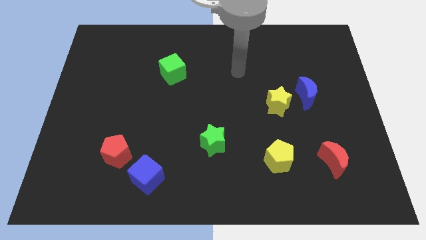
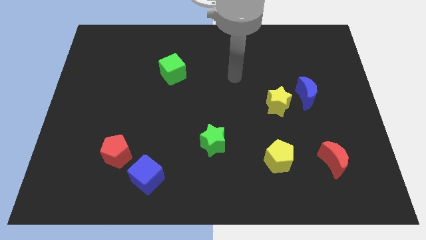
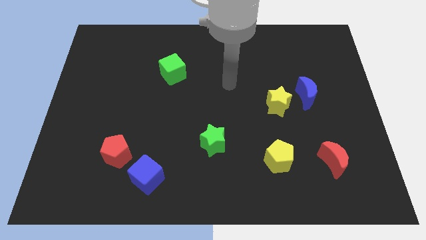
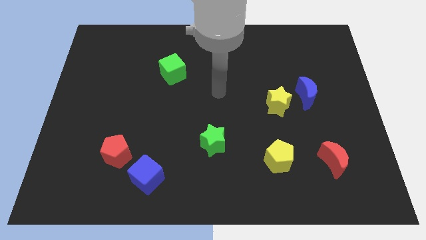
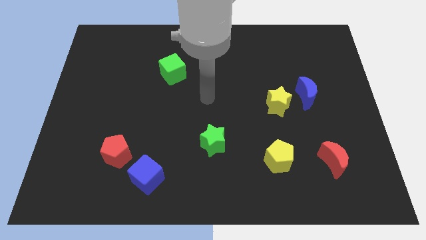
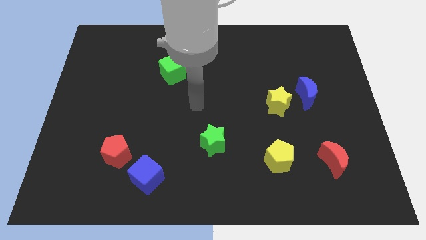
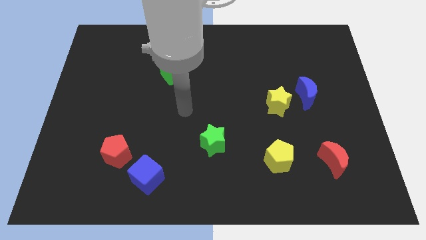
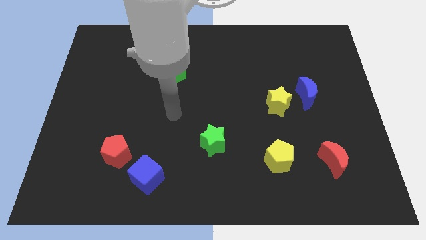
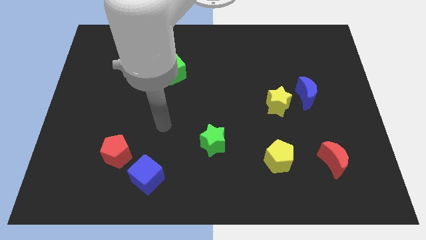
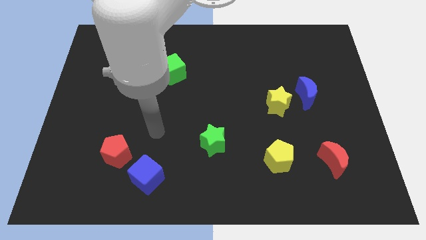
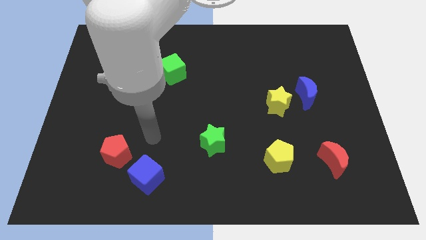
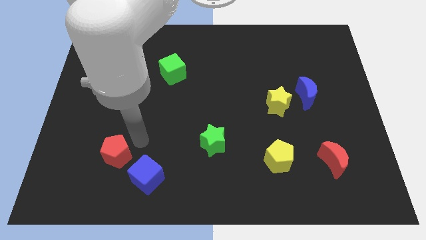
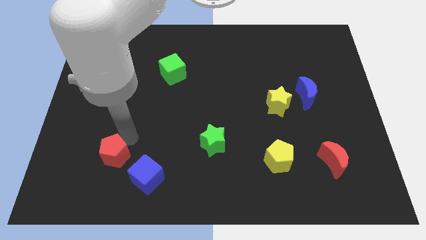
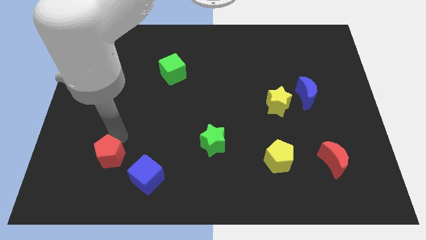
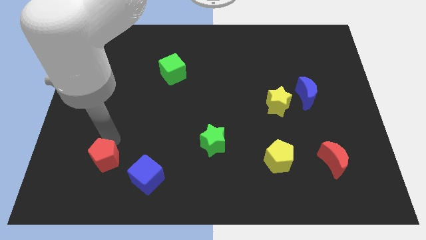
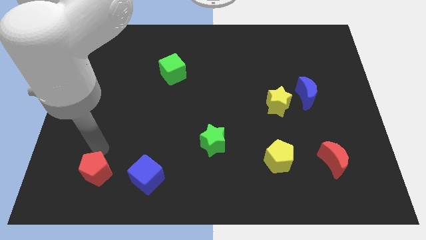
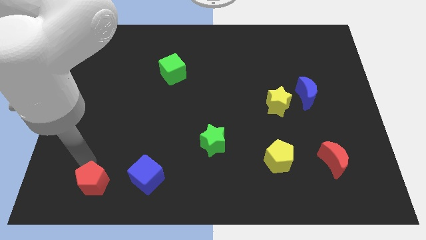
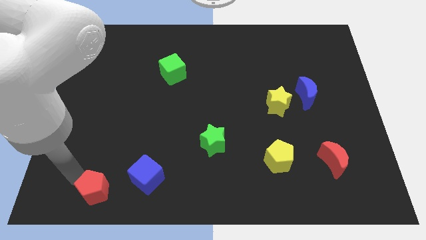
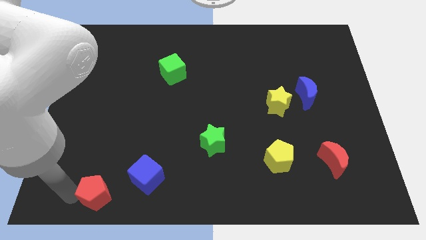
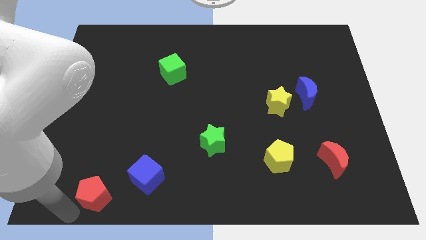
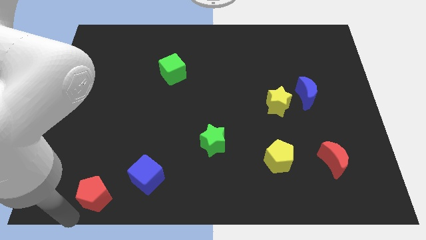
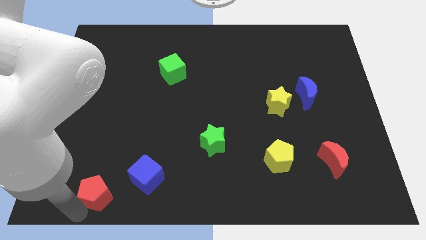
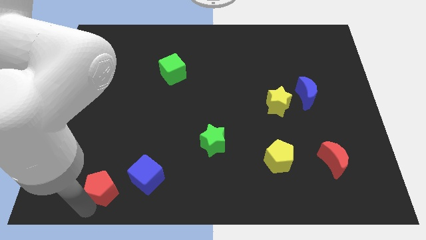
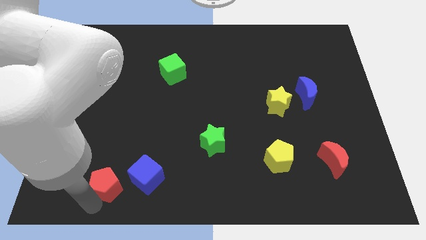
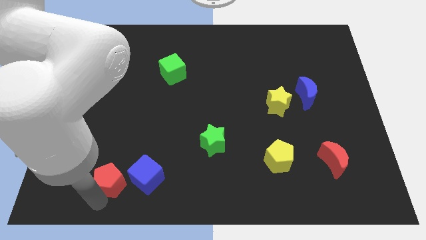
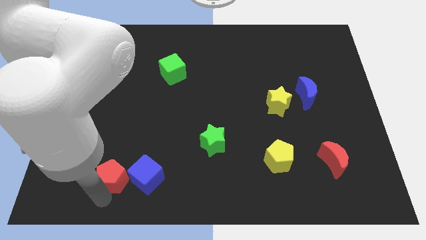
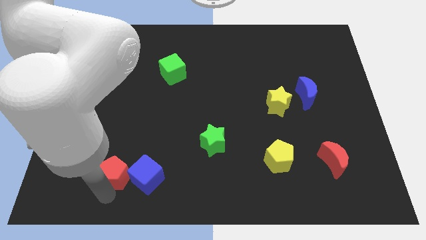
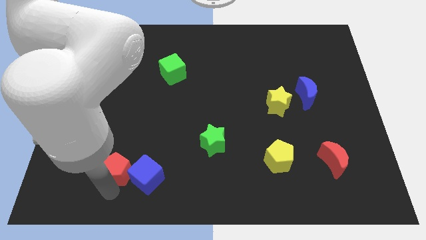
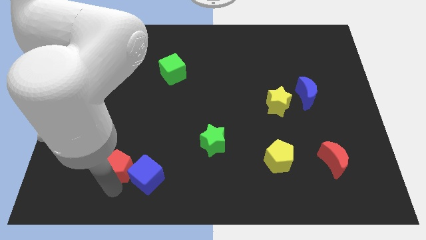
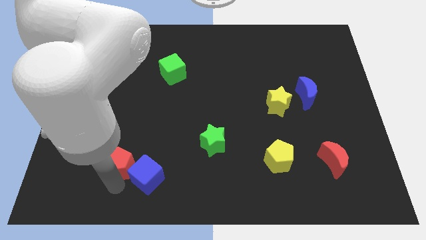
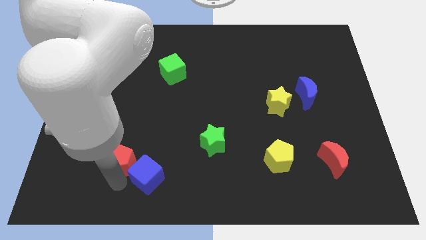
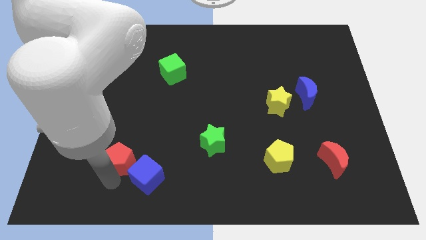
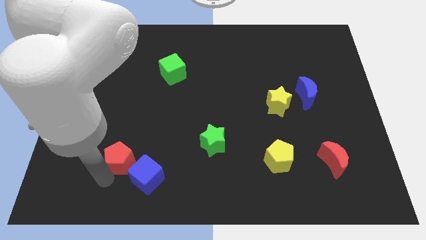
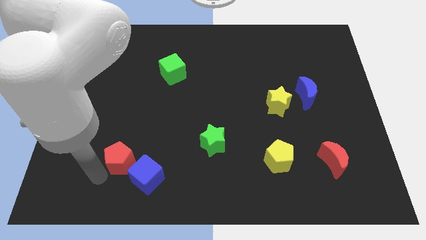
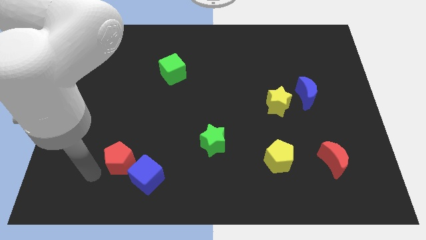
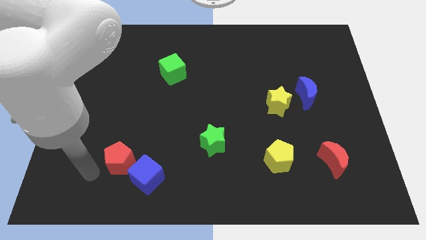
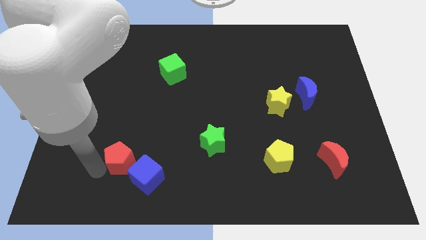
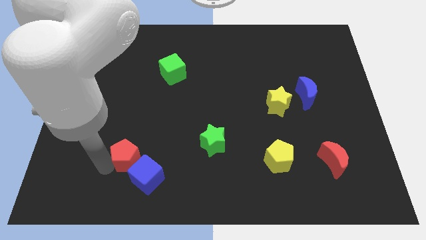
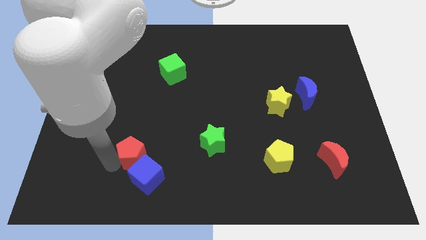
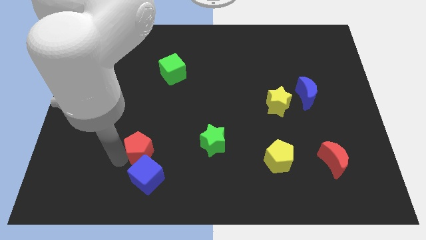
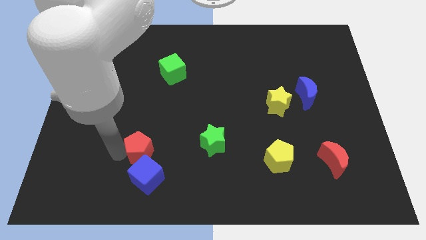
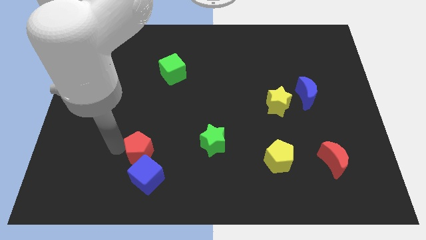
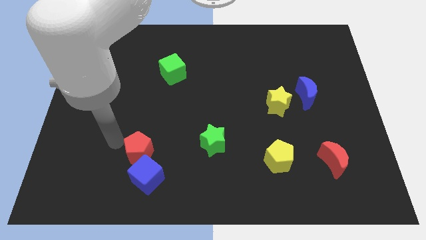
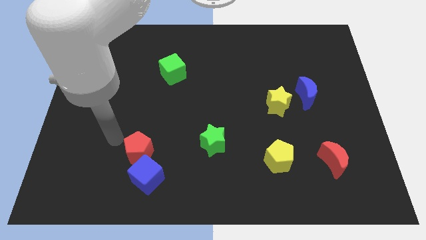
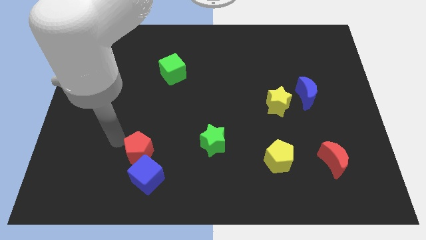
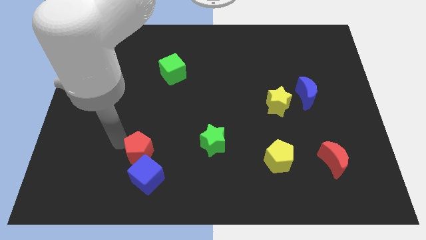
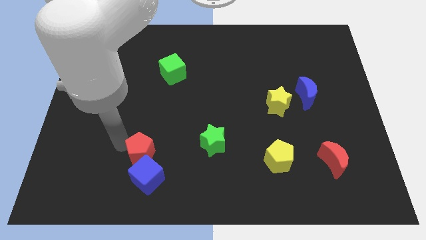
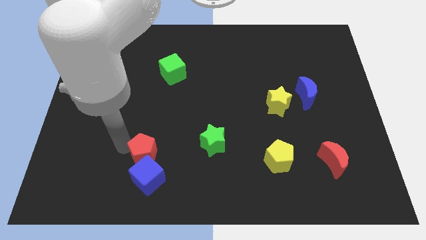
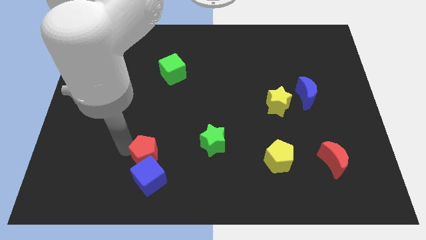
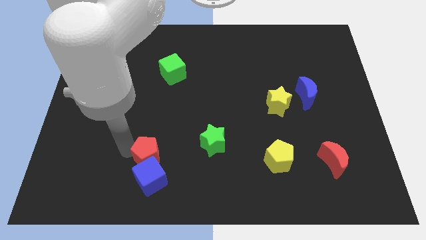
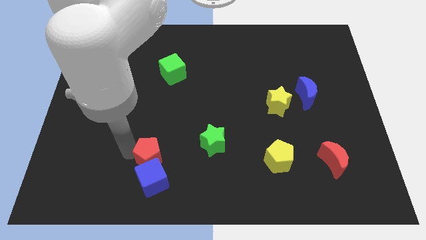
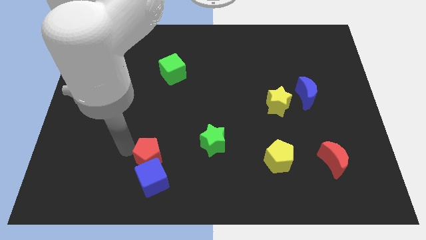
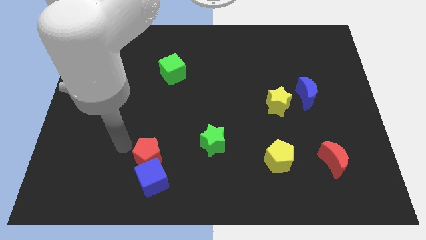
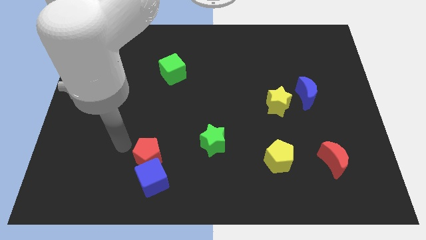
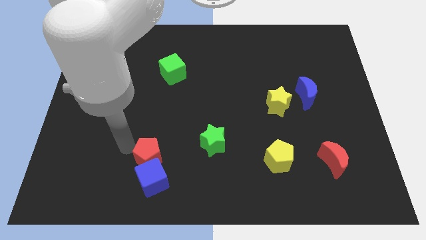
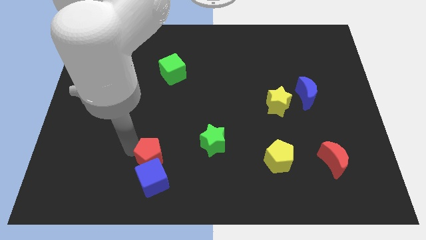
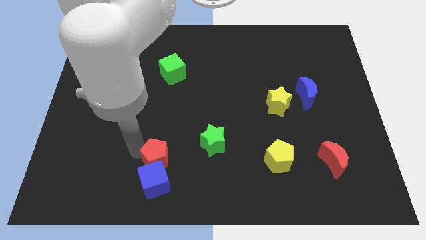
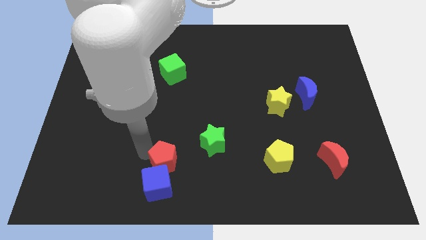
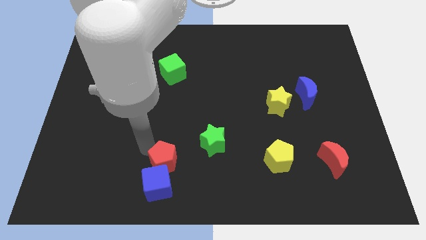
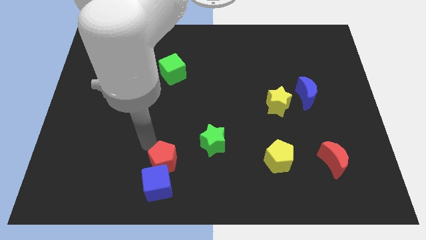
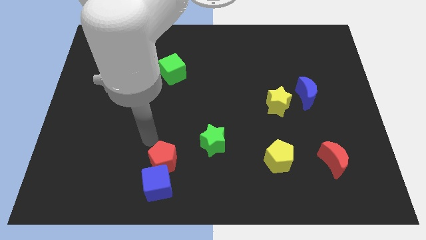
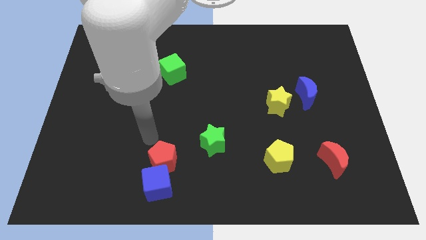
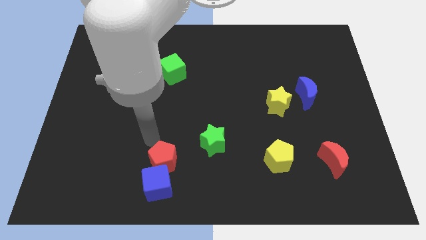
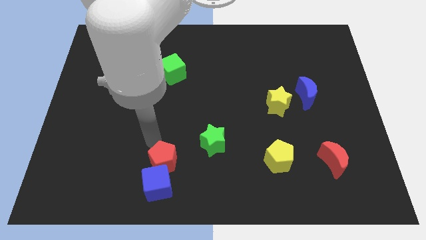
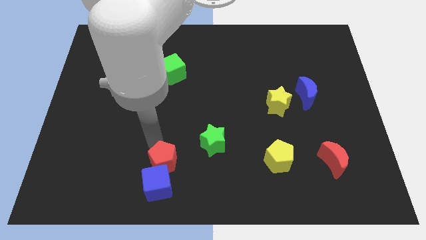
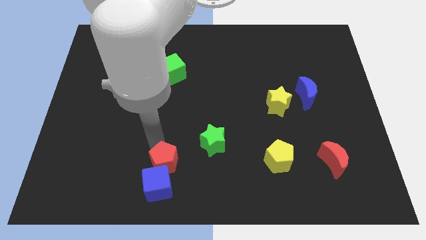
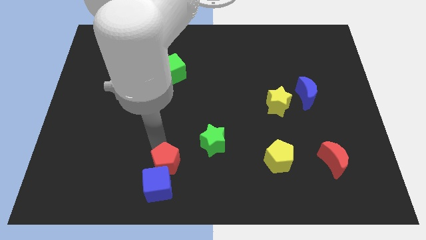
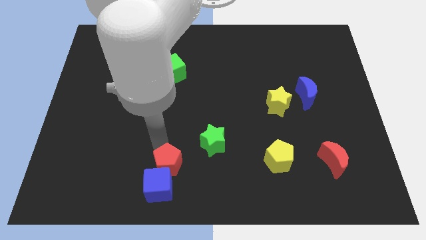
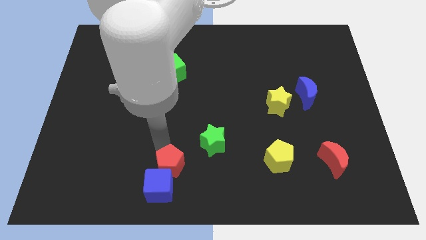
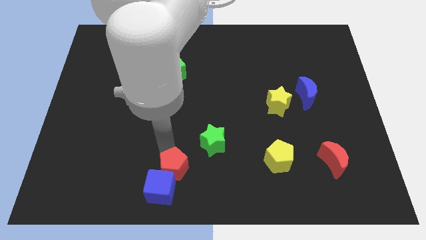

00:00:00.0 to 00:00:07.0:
push the red pentagon to the bottom side
